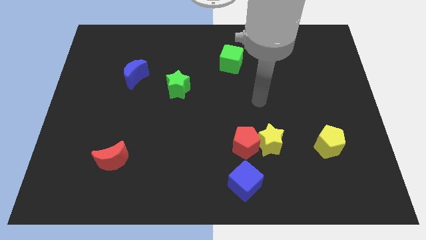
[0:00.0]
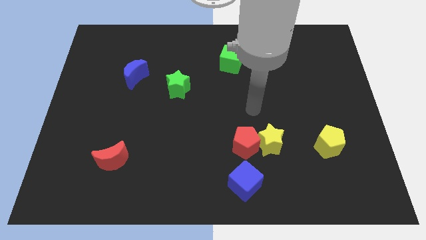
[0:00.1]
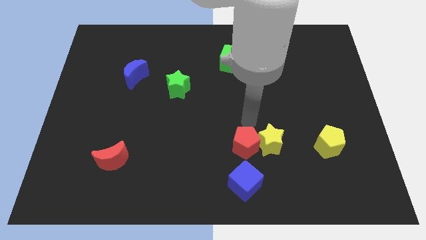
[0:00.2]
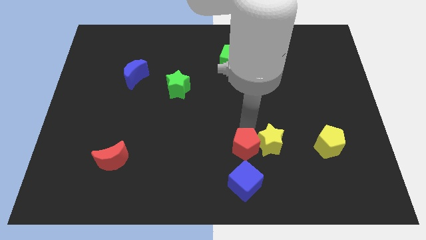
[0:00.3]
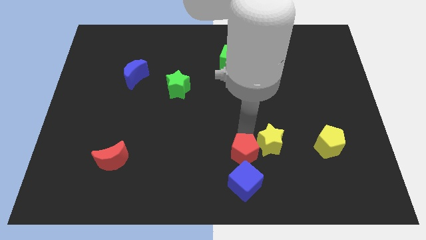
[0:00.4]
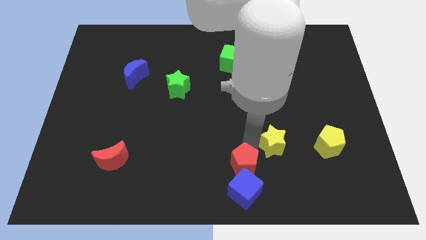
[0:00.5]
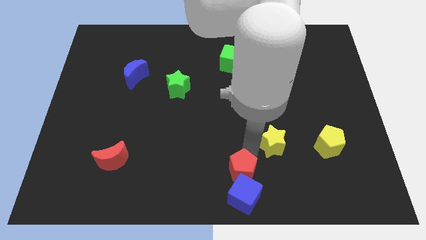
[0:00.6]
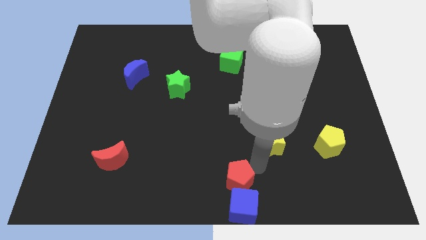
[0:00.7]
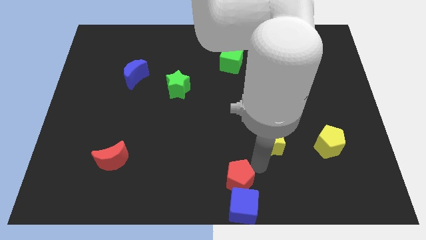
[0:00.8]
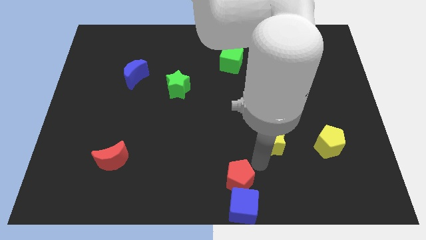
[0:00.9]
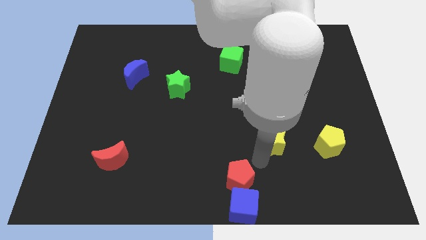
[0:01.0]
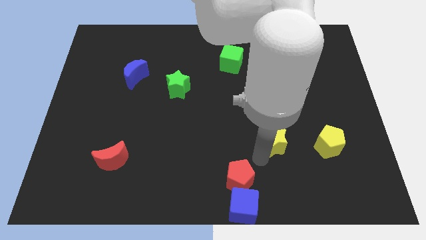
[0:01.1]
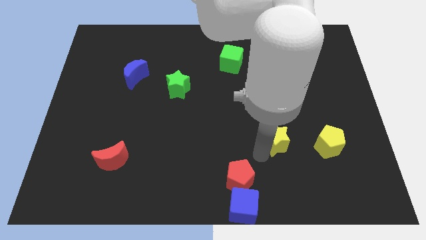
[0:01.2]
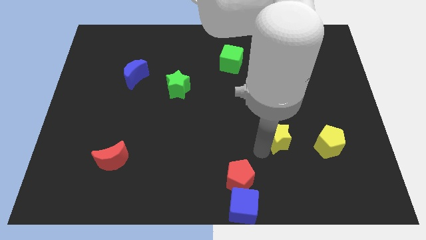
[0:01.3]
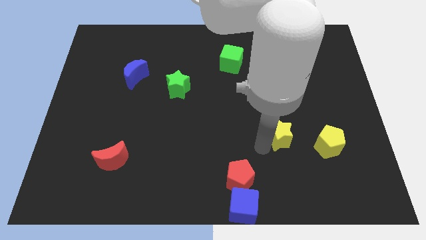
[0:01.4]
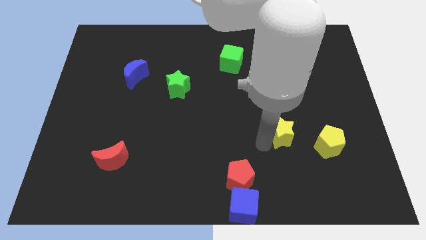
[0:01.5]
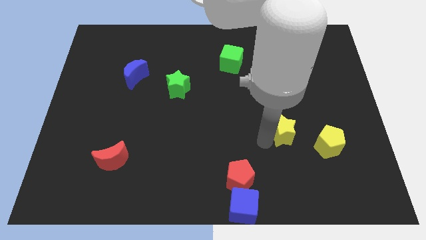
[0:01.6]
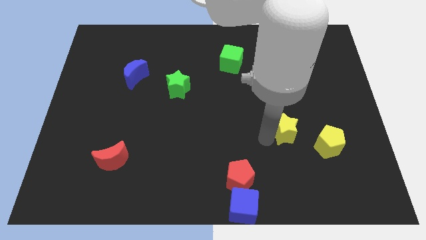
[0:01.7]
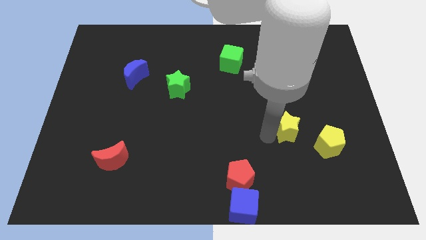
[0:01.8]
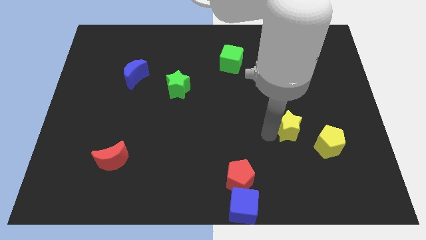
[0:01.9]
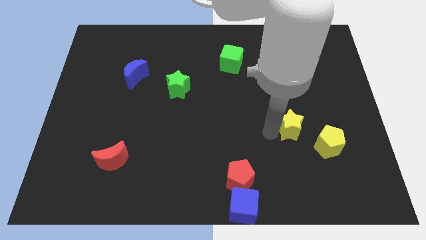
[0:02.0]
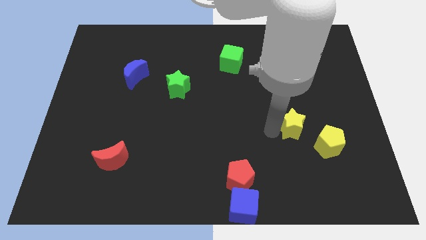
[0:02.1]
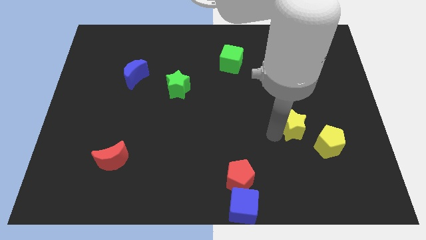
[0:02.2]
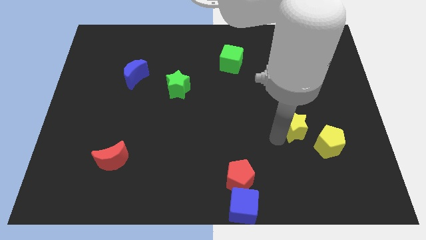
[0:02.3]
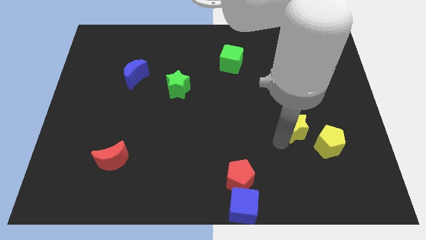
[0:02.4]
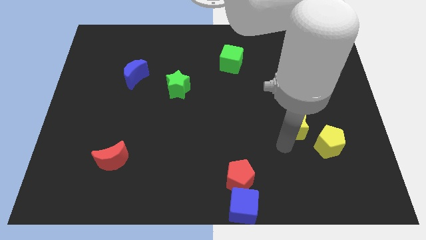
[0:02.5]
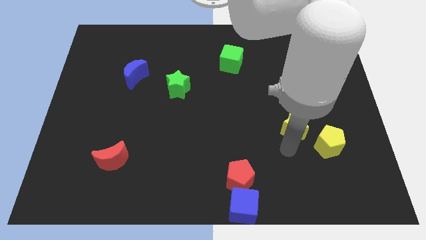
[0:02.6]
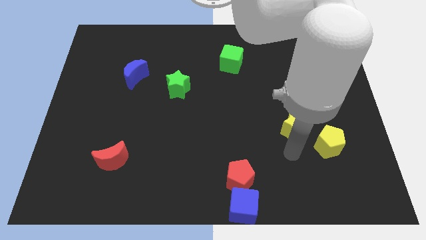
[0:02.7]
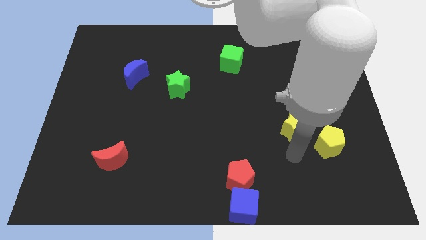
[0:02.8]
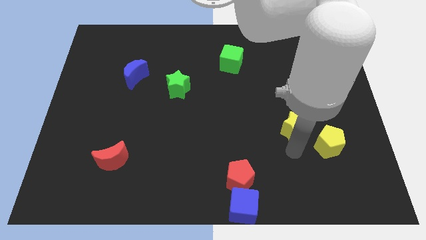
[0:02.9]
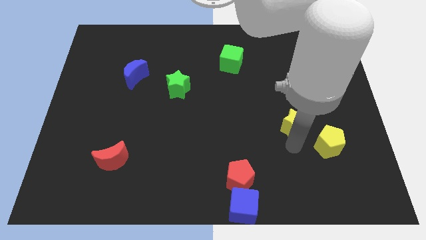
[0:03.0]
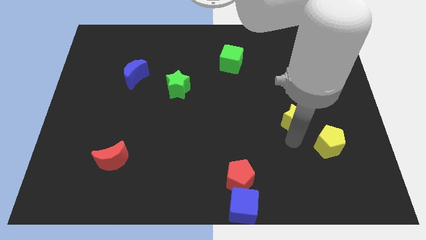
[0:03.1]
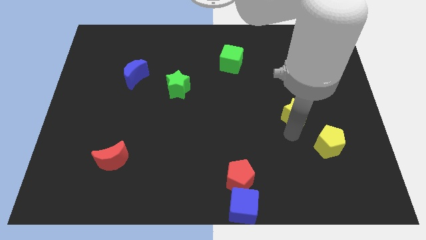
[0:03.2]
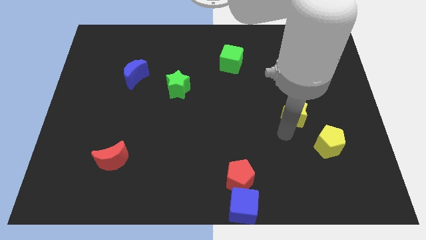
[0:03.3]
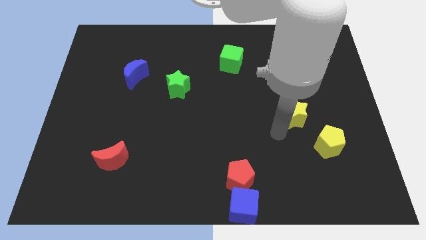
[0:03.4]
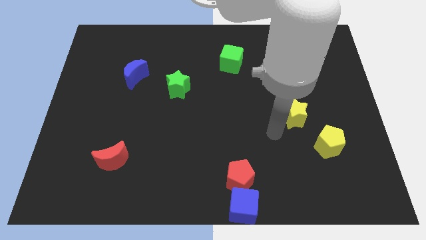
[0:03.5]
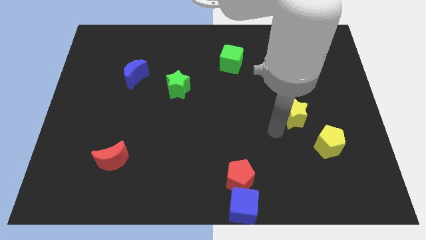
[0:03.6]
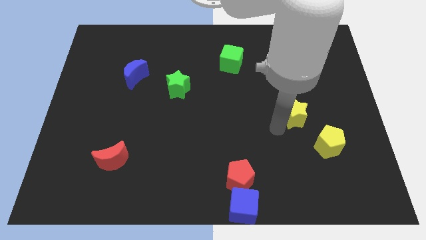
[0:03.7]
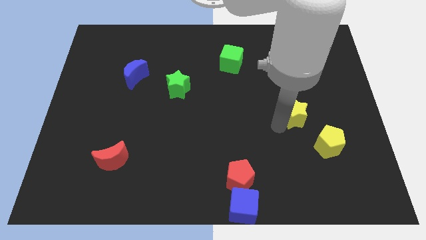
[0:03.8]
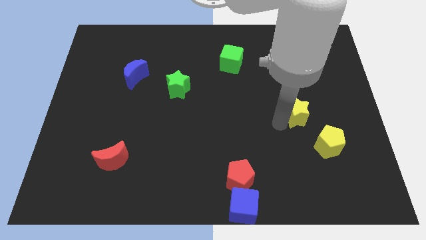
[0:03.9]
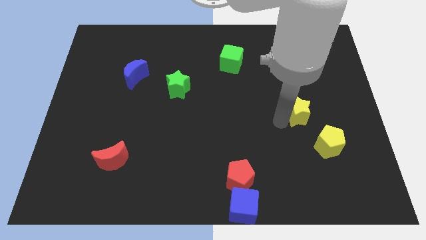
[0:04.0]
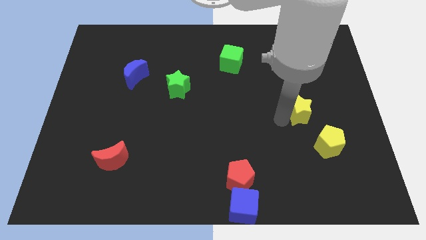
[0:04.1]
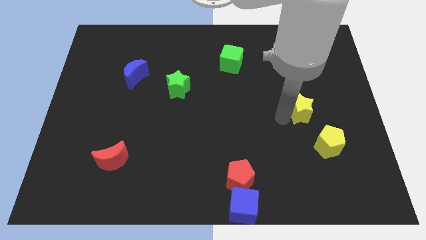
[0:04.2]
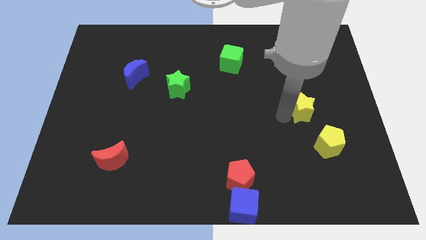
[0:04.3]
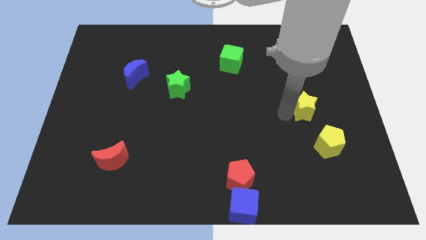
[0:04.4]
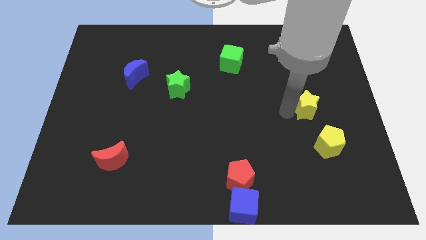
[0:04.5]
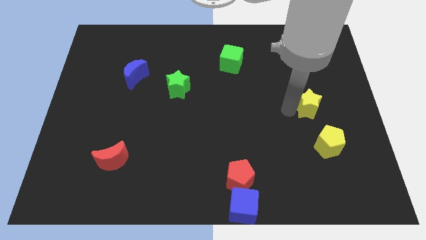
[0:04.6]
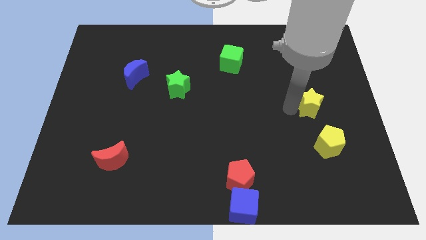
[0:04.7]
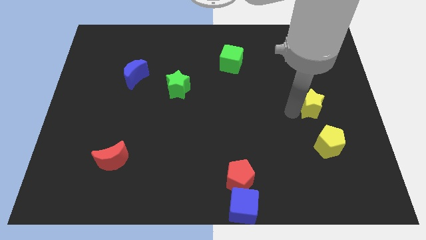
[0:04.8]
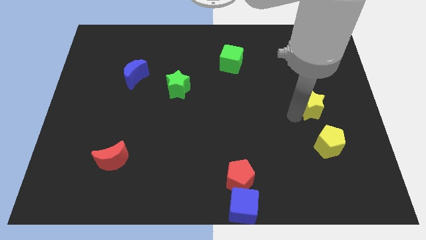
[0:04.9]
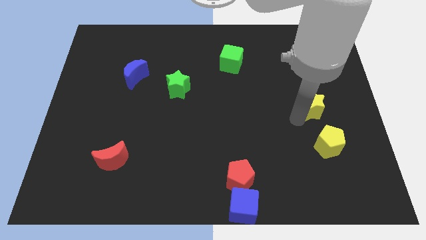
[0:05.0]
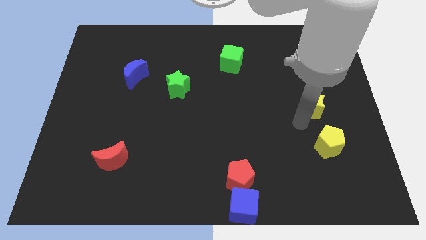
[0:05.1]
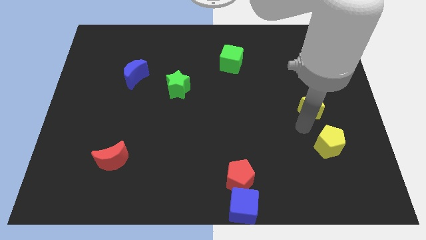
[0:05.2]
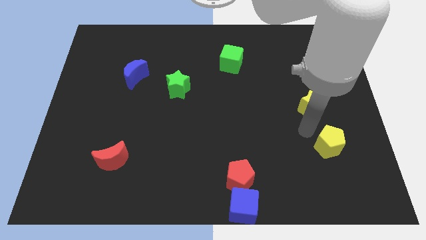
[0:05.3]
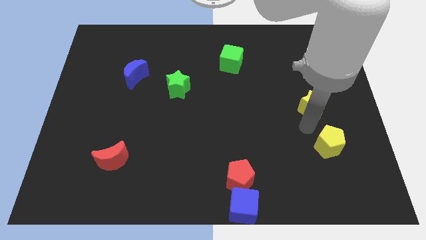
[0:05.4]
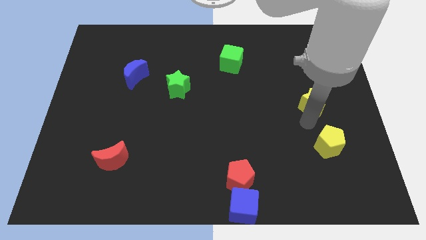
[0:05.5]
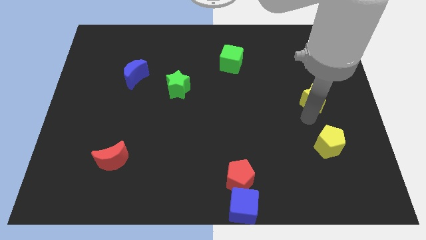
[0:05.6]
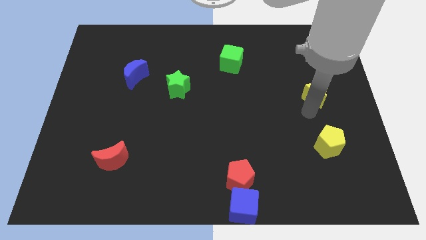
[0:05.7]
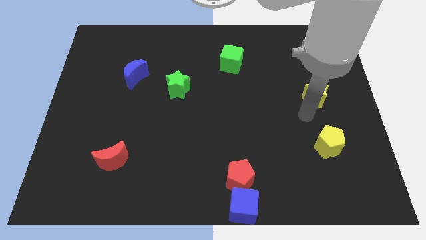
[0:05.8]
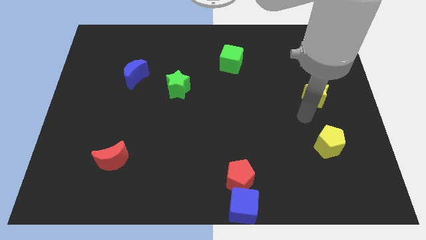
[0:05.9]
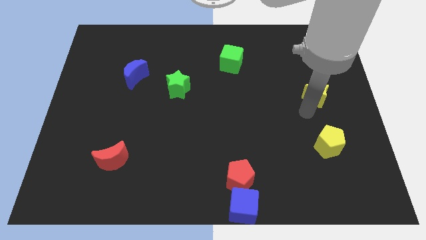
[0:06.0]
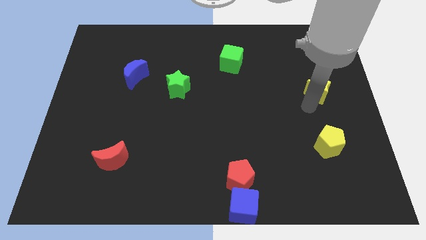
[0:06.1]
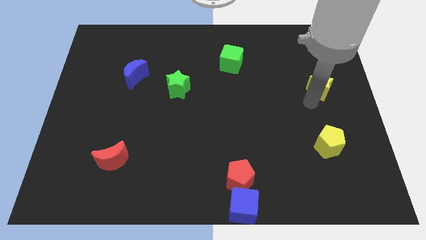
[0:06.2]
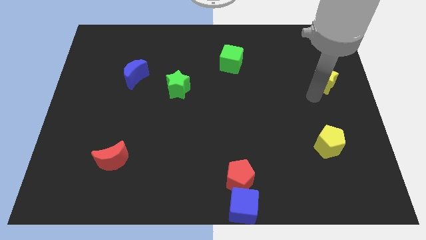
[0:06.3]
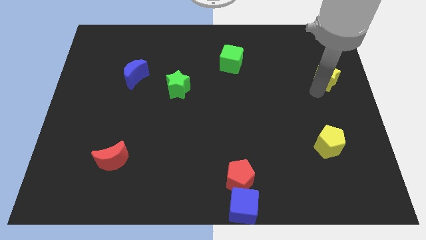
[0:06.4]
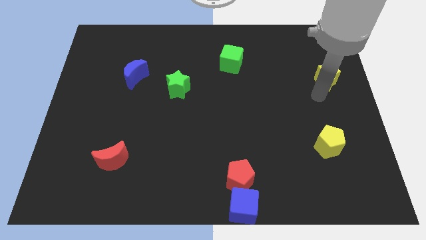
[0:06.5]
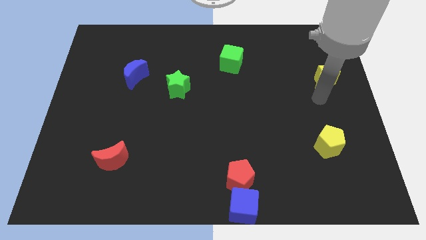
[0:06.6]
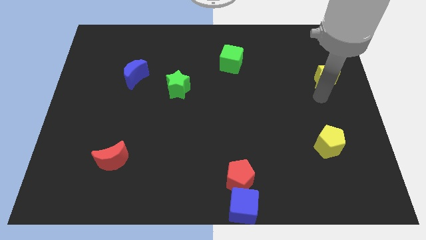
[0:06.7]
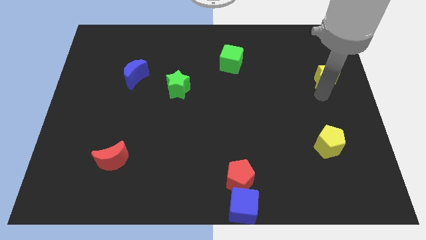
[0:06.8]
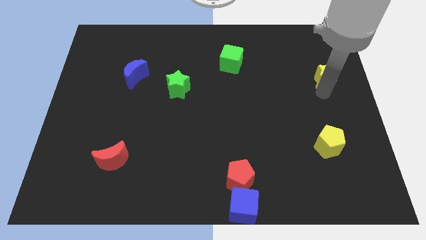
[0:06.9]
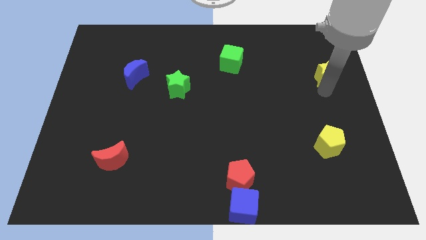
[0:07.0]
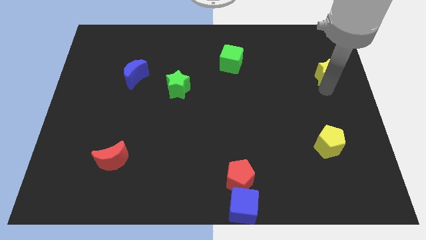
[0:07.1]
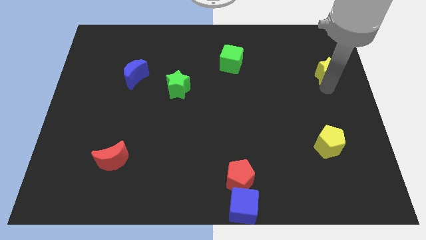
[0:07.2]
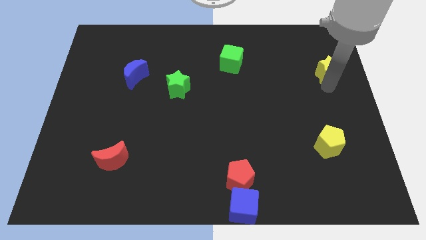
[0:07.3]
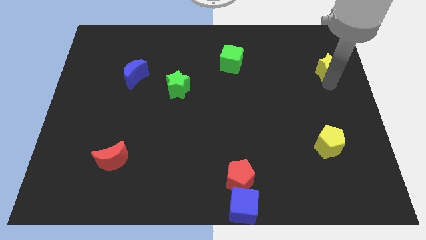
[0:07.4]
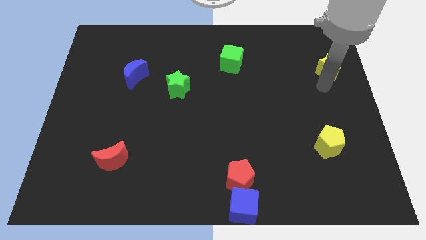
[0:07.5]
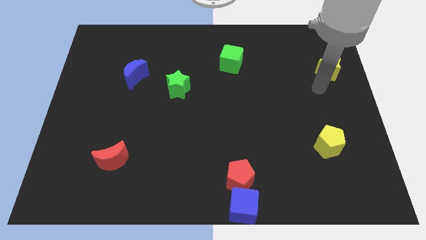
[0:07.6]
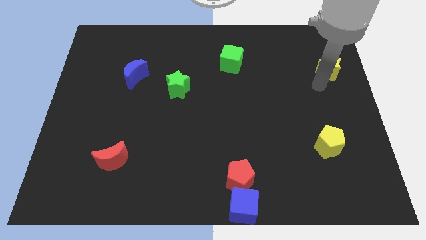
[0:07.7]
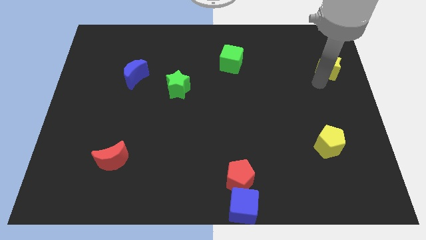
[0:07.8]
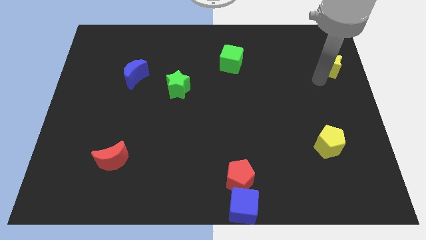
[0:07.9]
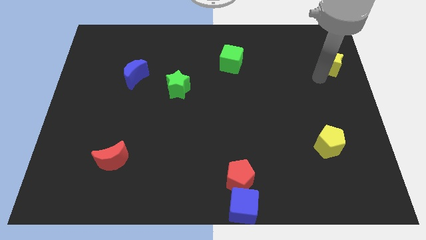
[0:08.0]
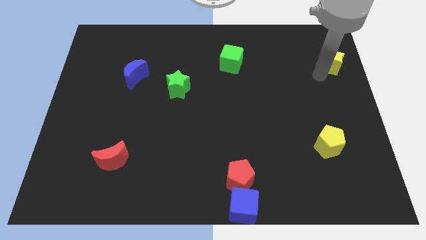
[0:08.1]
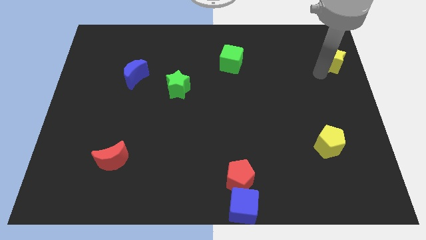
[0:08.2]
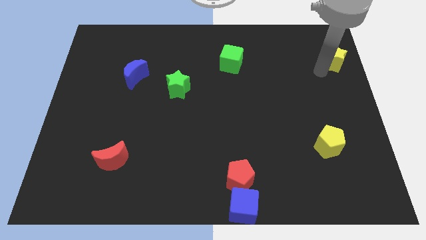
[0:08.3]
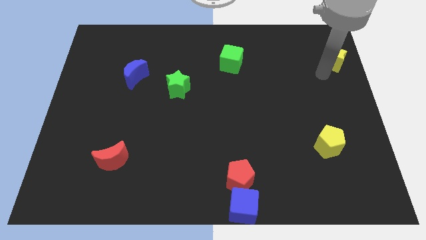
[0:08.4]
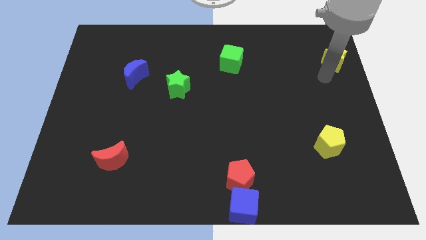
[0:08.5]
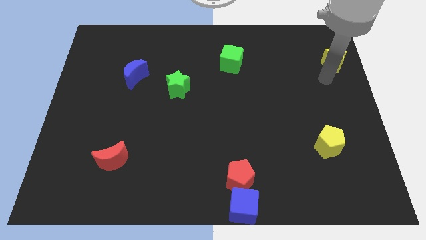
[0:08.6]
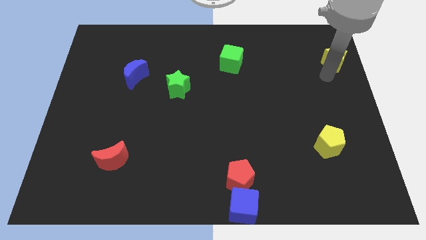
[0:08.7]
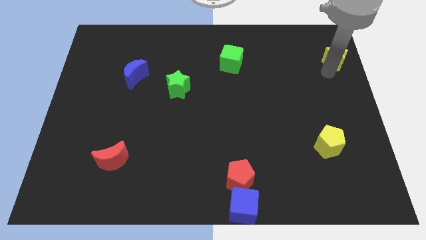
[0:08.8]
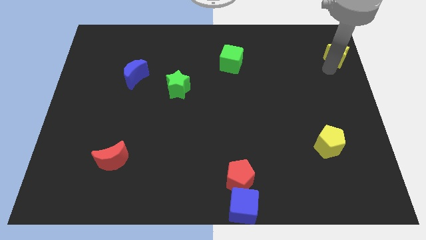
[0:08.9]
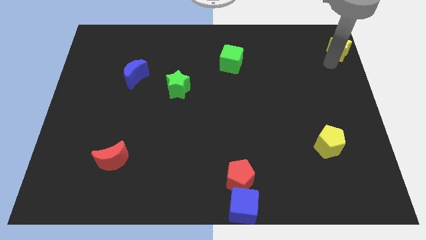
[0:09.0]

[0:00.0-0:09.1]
push the yellow star to the top right corner
